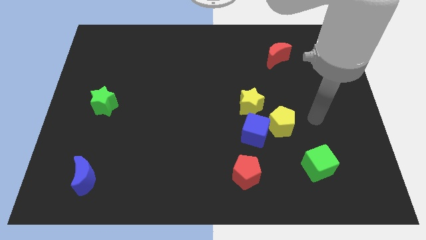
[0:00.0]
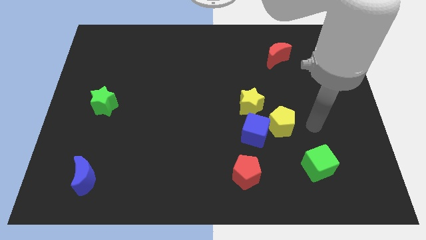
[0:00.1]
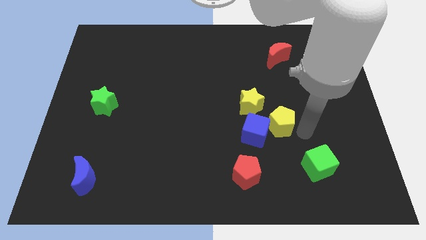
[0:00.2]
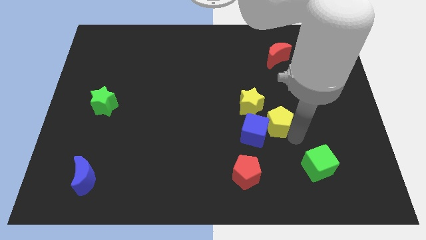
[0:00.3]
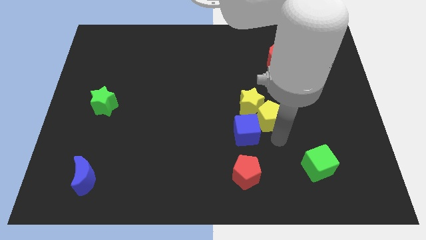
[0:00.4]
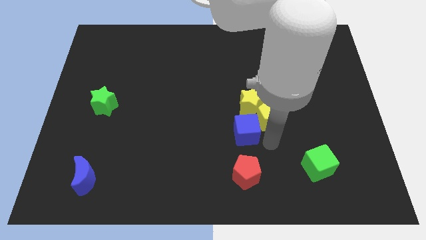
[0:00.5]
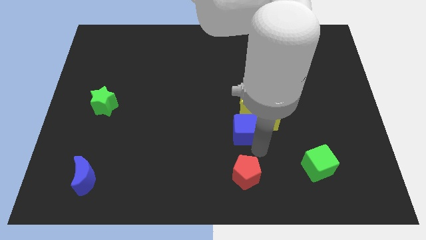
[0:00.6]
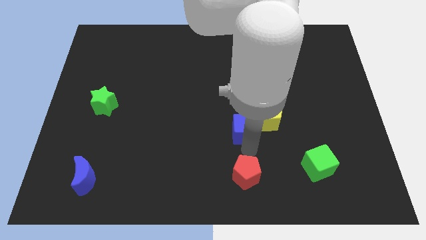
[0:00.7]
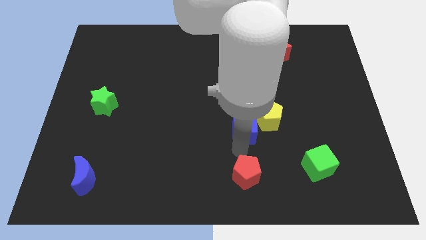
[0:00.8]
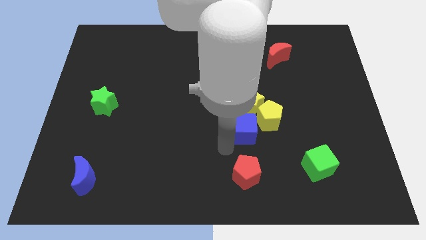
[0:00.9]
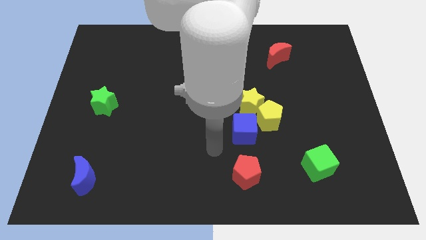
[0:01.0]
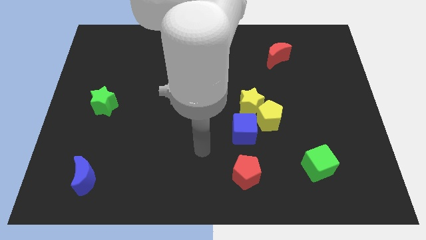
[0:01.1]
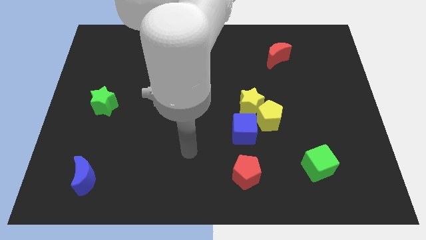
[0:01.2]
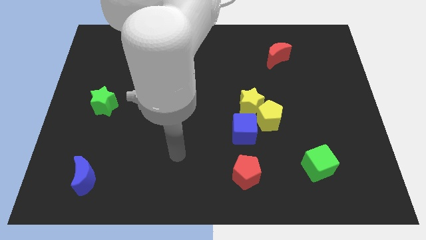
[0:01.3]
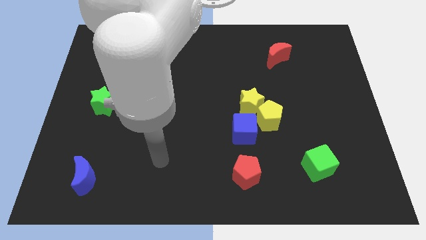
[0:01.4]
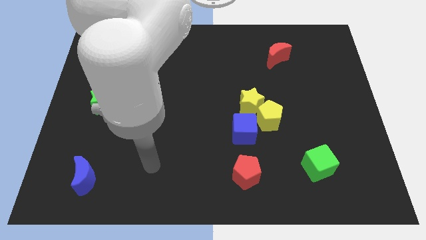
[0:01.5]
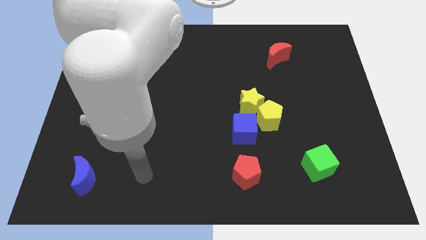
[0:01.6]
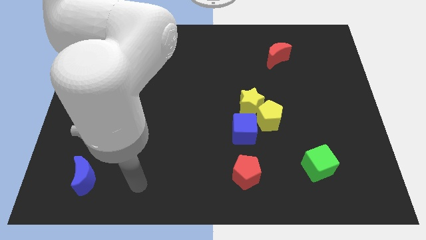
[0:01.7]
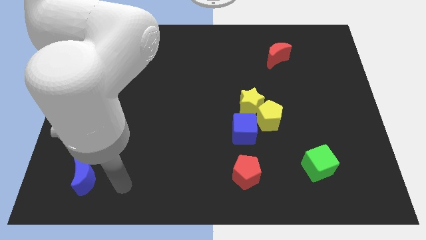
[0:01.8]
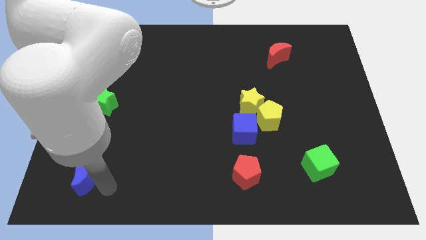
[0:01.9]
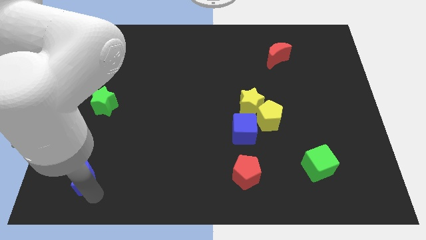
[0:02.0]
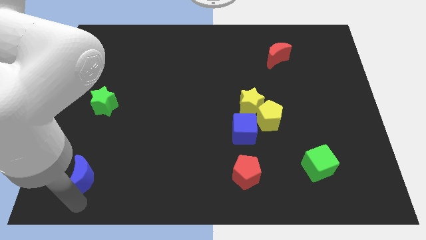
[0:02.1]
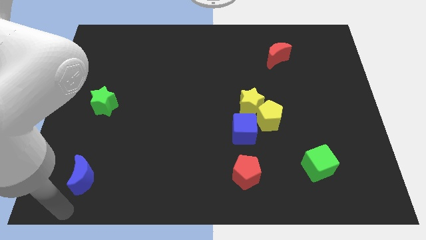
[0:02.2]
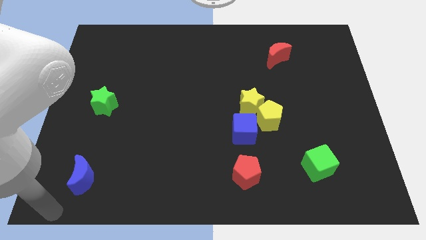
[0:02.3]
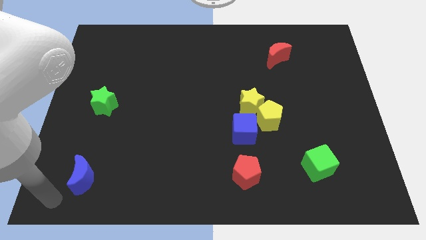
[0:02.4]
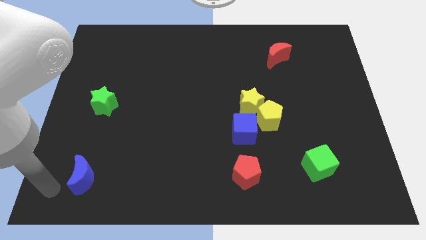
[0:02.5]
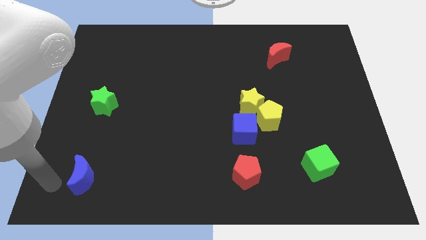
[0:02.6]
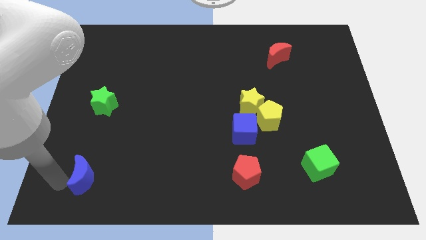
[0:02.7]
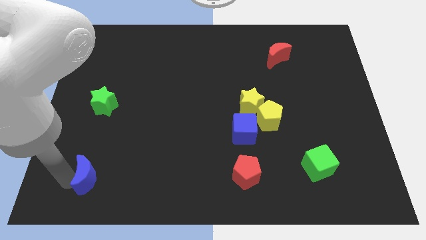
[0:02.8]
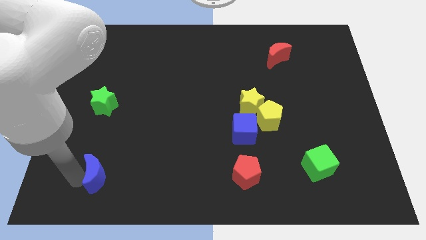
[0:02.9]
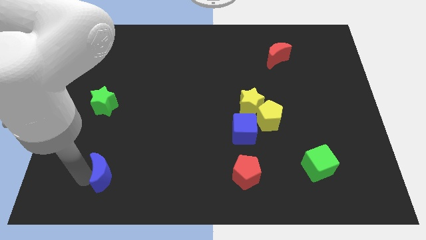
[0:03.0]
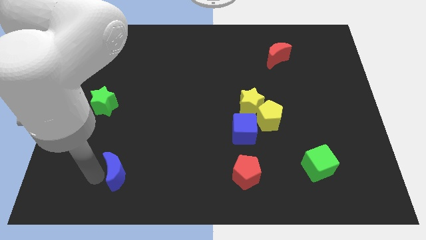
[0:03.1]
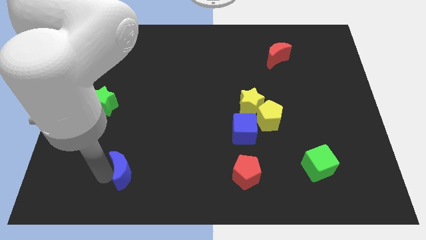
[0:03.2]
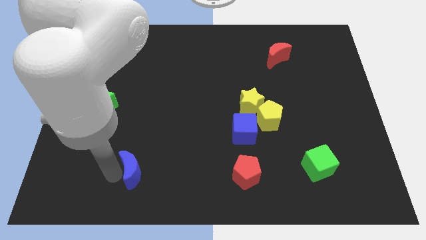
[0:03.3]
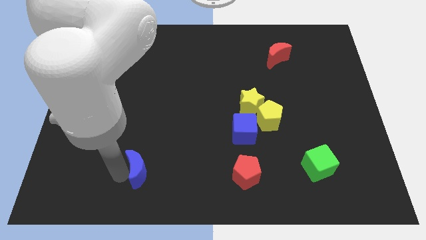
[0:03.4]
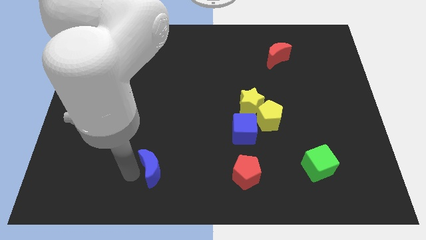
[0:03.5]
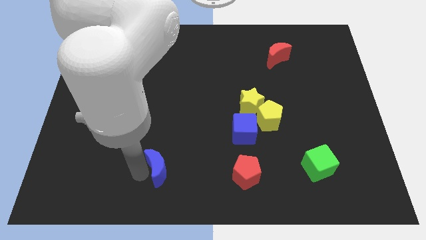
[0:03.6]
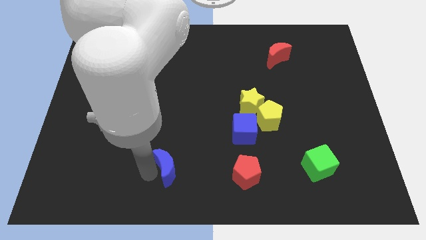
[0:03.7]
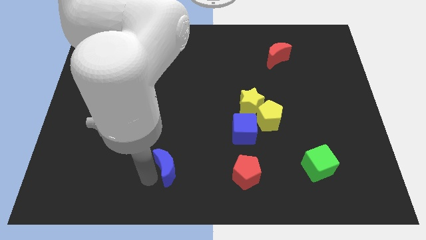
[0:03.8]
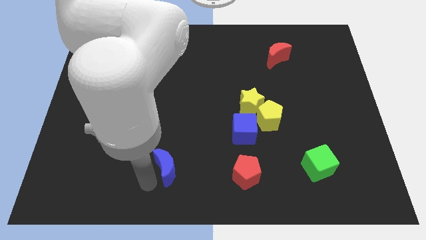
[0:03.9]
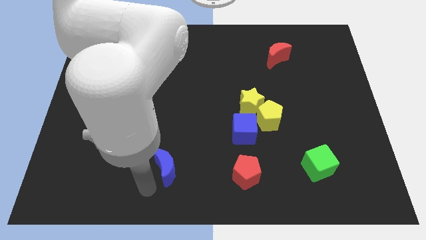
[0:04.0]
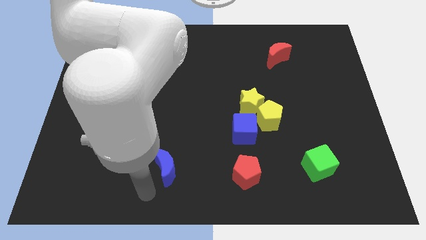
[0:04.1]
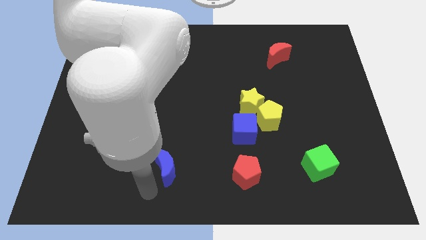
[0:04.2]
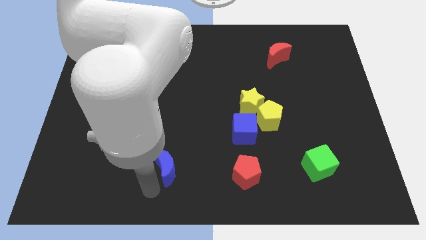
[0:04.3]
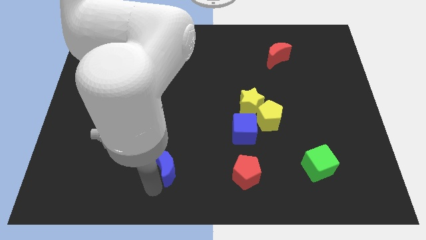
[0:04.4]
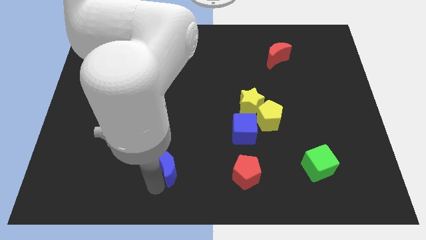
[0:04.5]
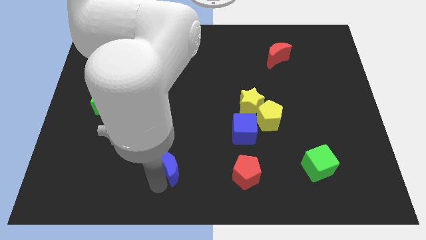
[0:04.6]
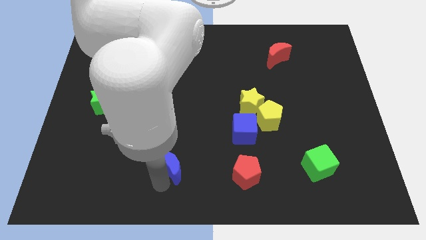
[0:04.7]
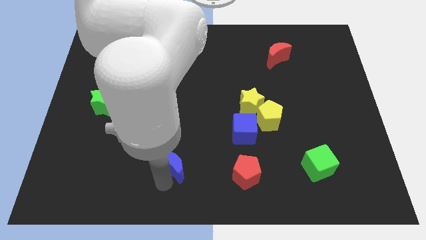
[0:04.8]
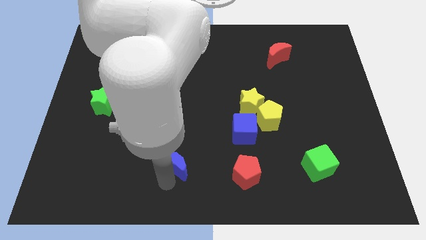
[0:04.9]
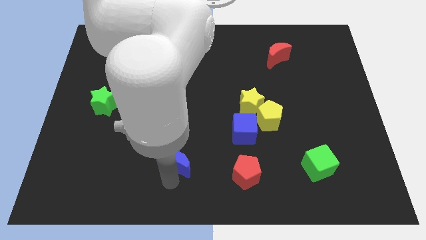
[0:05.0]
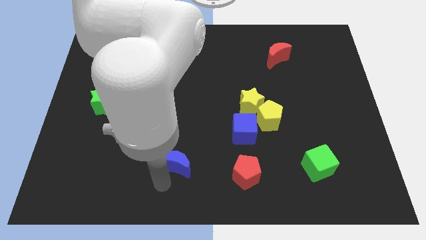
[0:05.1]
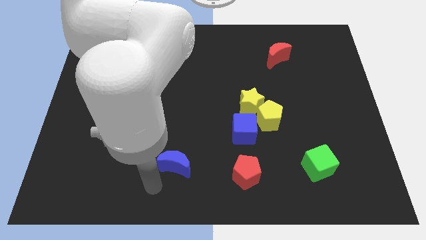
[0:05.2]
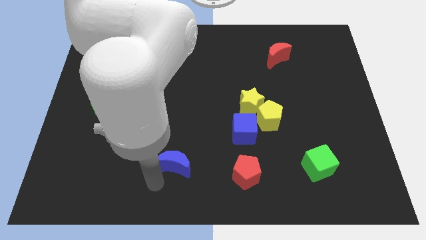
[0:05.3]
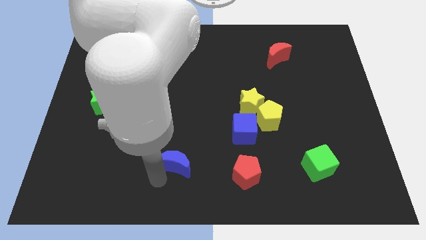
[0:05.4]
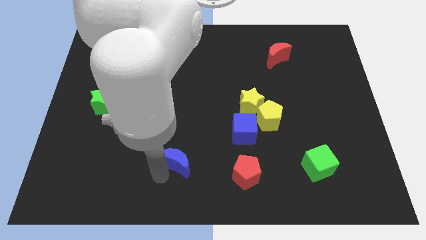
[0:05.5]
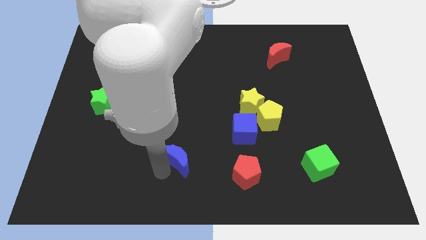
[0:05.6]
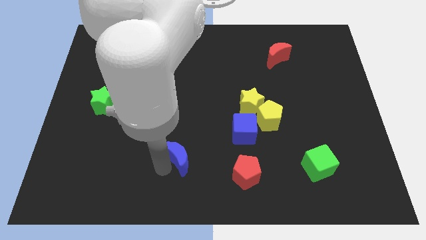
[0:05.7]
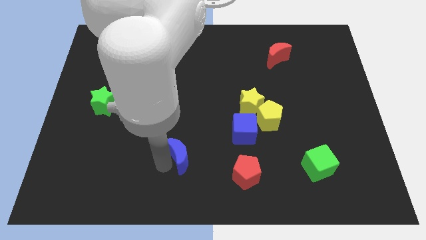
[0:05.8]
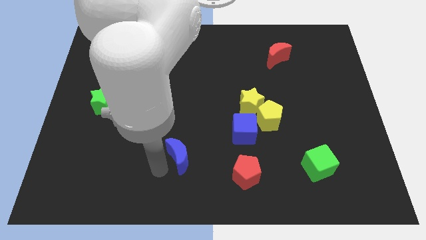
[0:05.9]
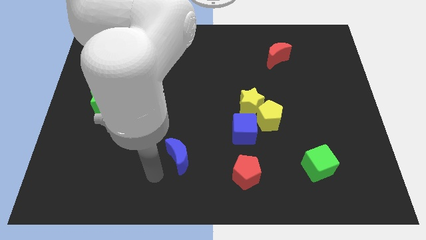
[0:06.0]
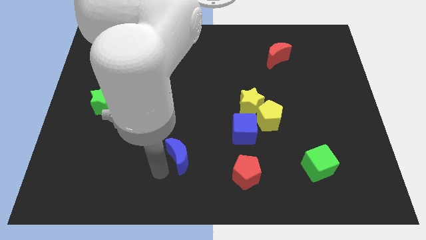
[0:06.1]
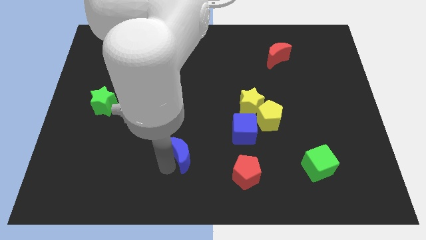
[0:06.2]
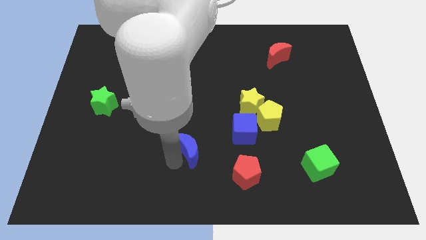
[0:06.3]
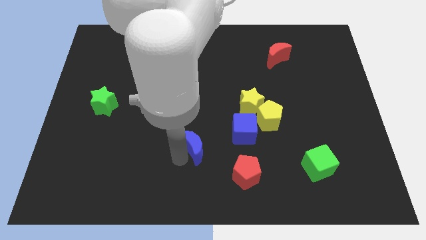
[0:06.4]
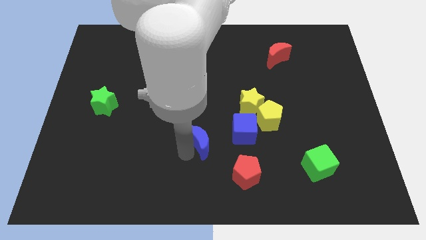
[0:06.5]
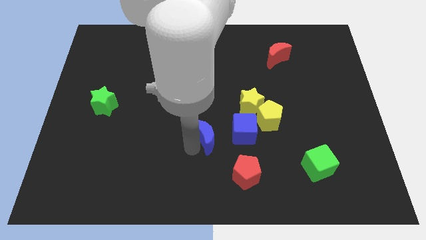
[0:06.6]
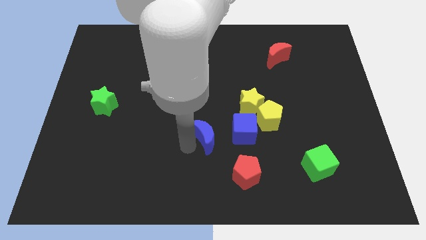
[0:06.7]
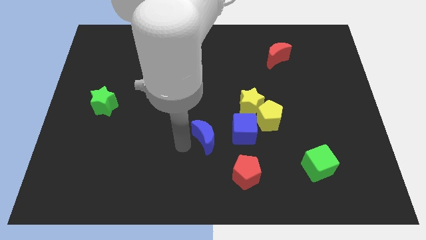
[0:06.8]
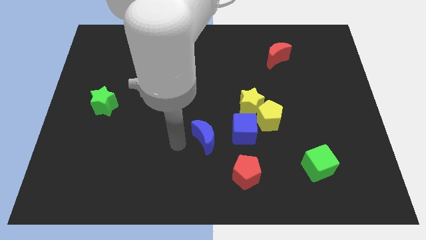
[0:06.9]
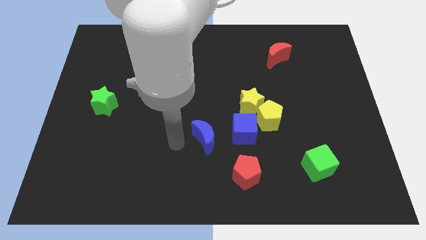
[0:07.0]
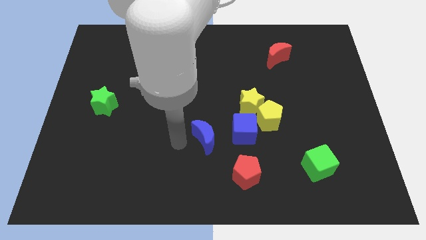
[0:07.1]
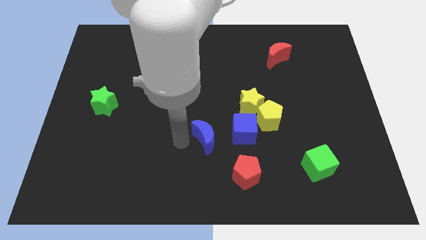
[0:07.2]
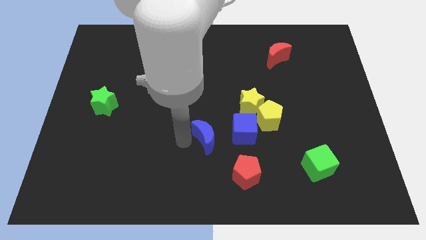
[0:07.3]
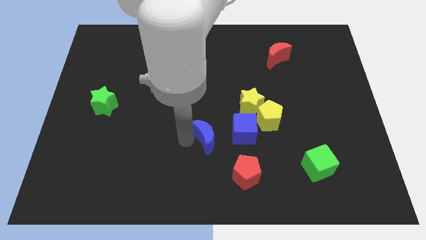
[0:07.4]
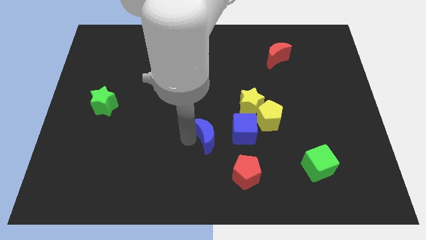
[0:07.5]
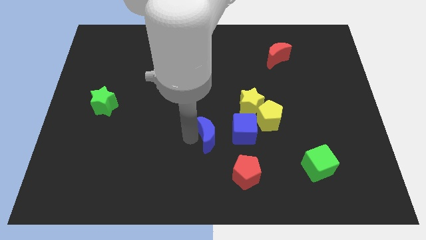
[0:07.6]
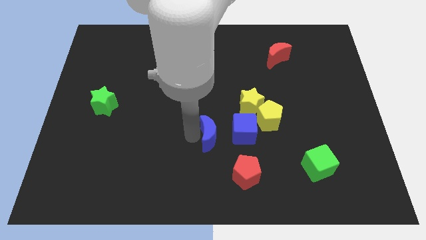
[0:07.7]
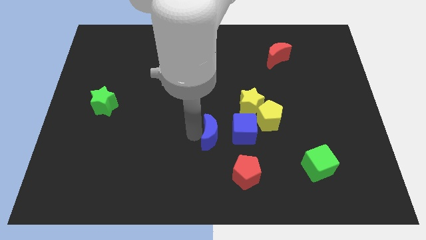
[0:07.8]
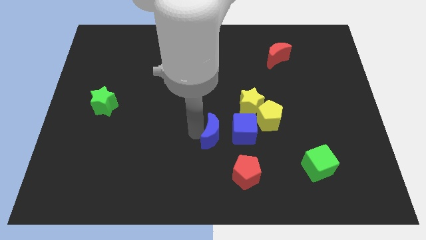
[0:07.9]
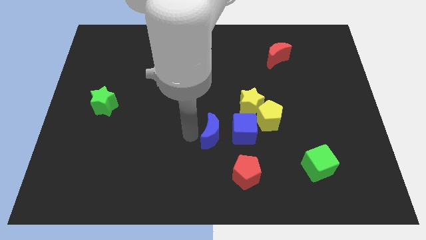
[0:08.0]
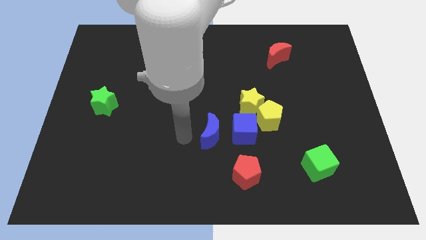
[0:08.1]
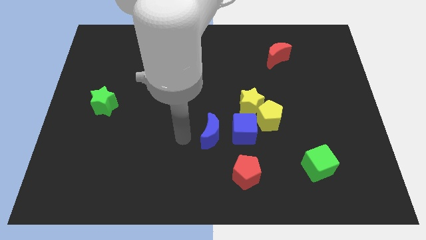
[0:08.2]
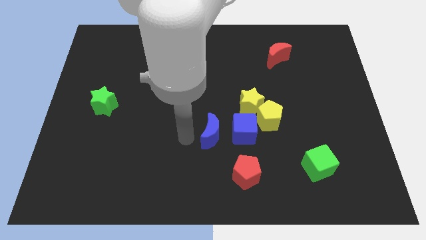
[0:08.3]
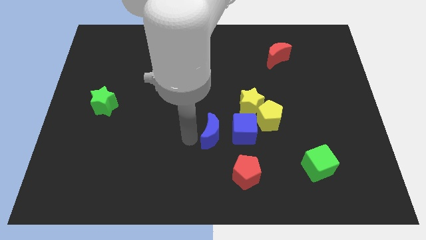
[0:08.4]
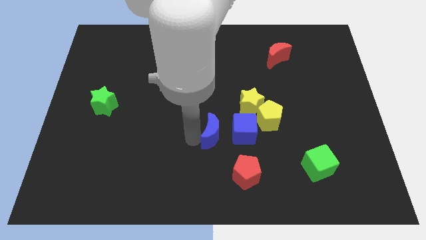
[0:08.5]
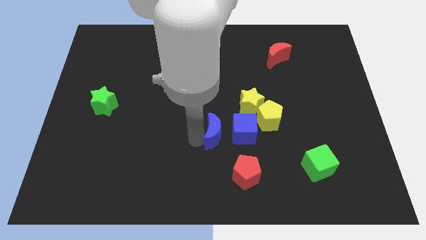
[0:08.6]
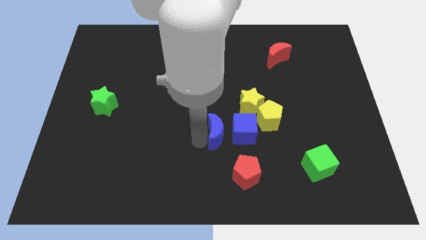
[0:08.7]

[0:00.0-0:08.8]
slide the blue moon towards the blue cube
